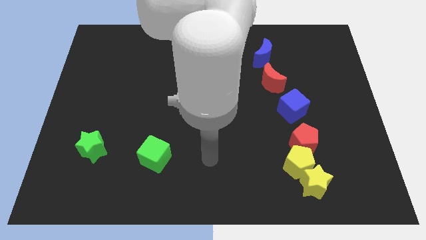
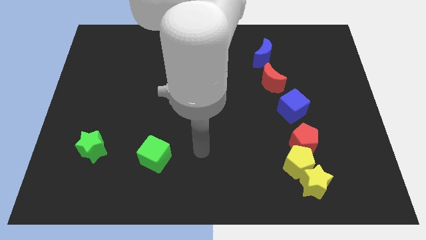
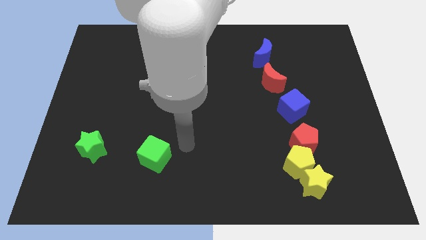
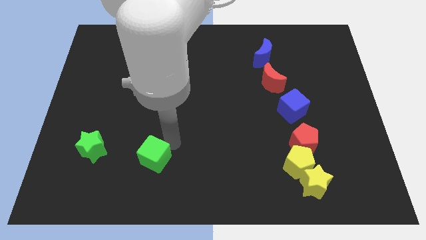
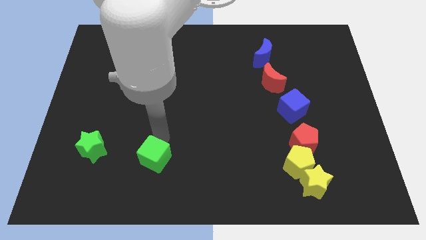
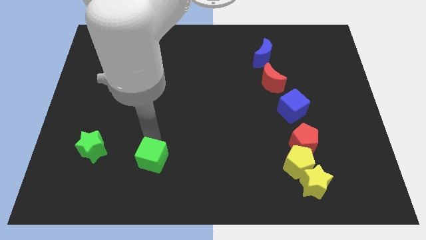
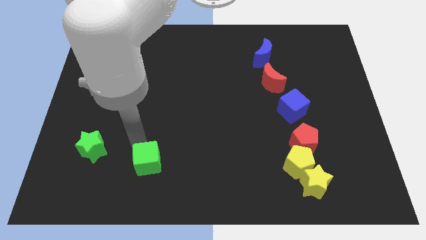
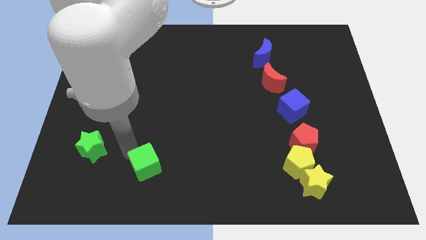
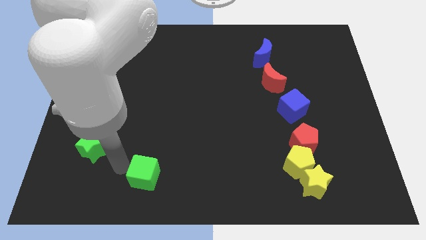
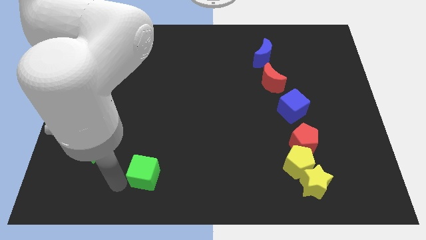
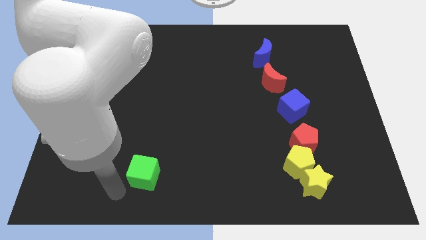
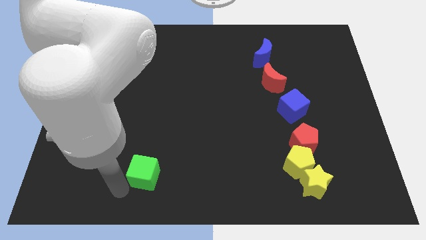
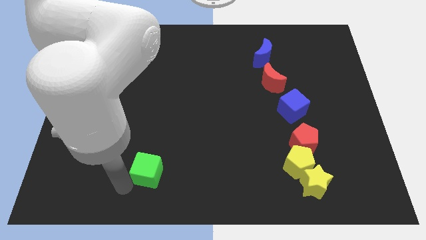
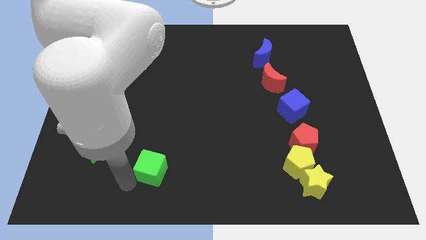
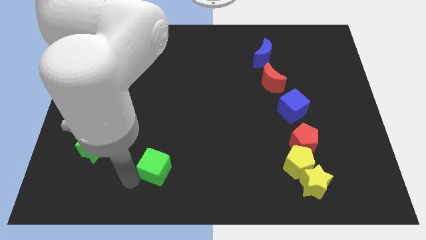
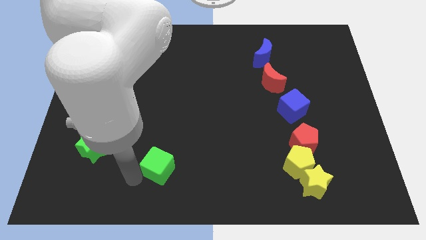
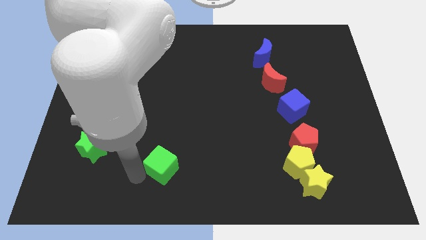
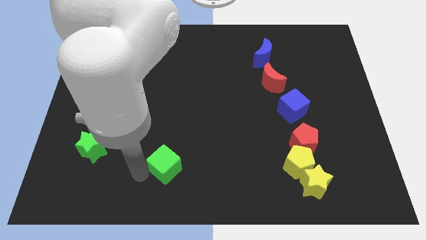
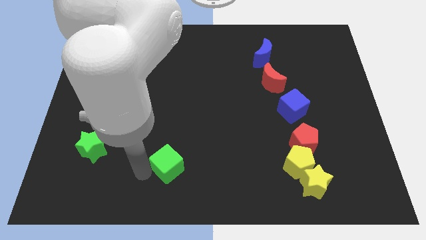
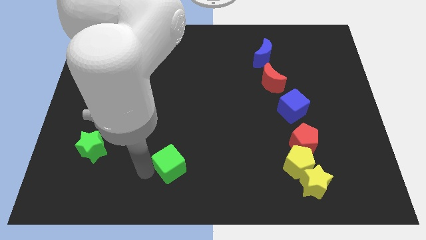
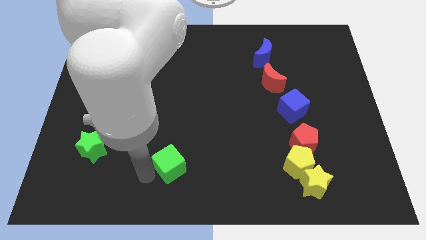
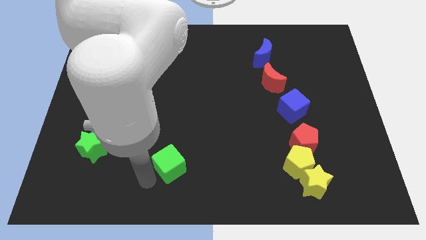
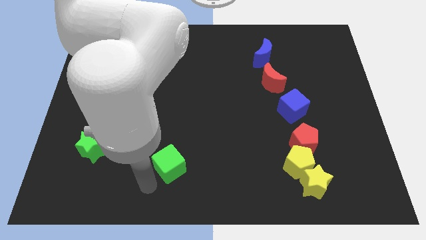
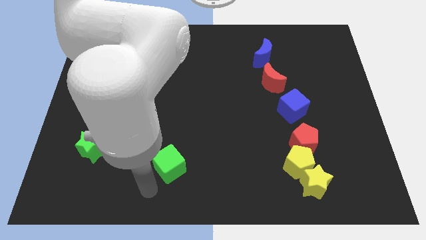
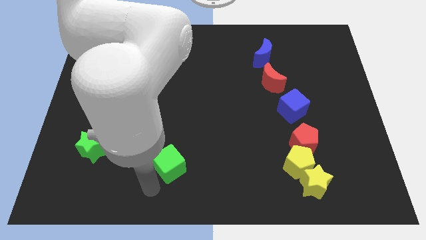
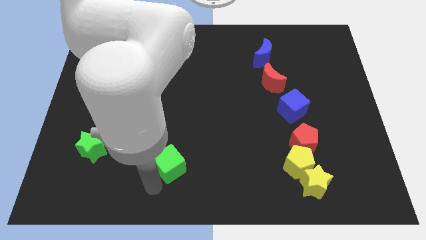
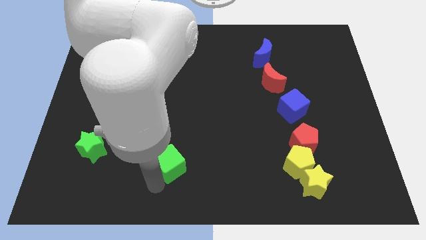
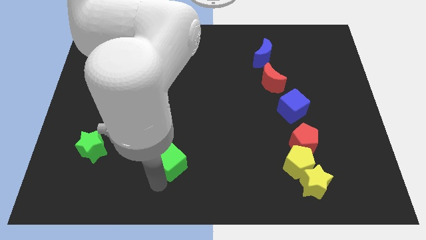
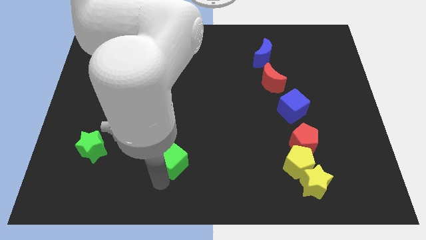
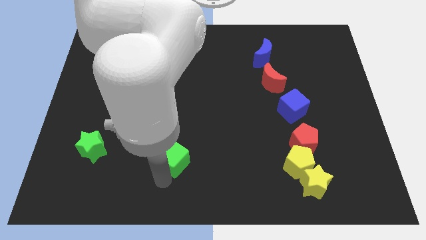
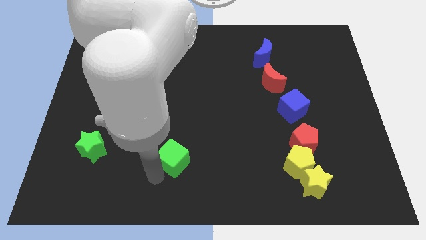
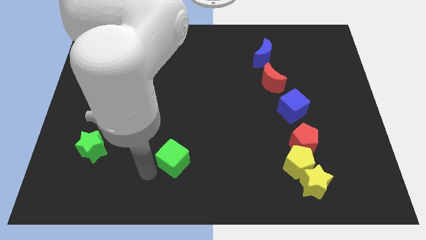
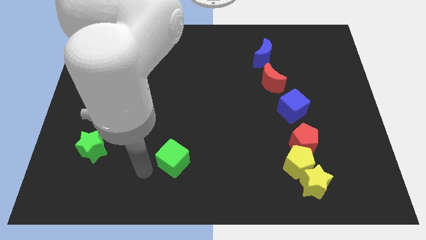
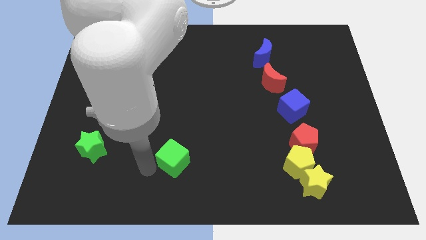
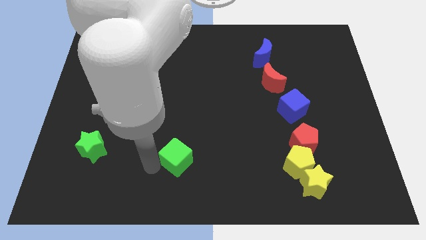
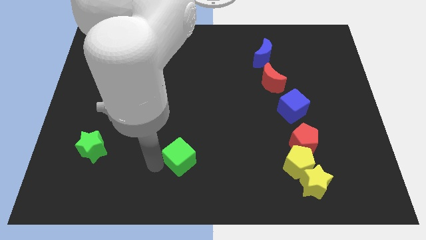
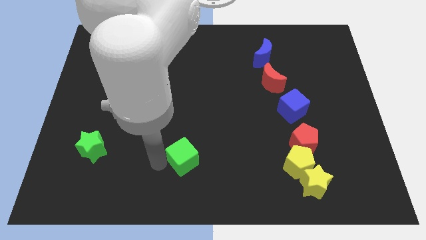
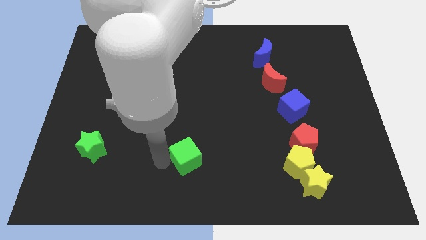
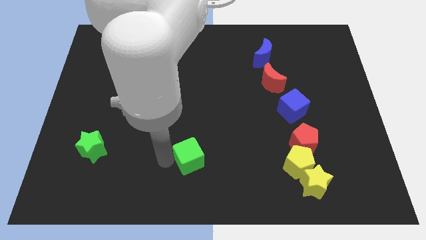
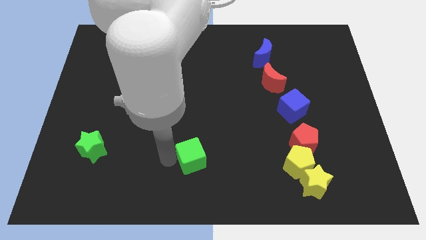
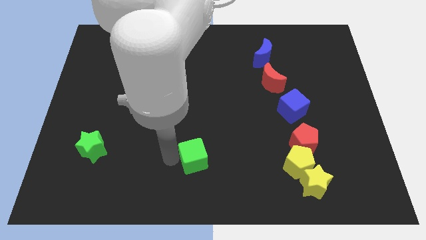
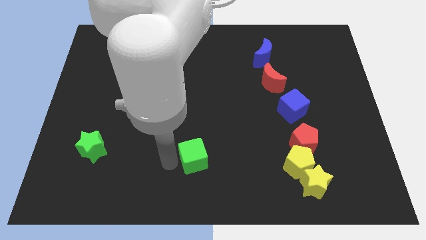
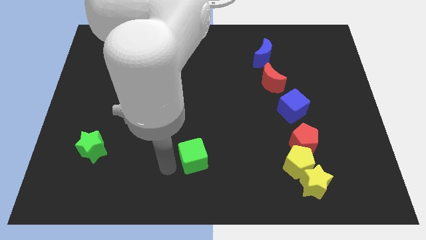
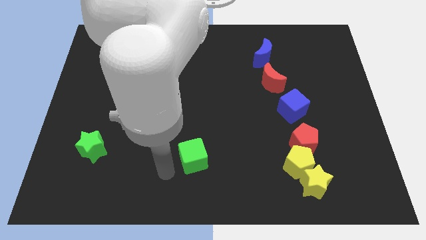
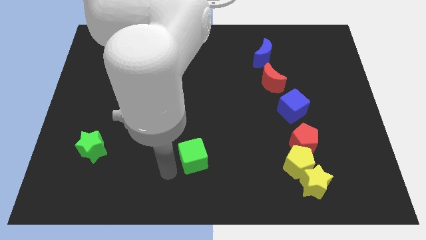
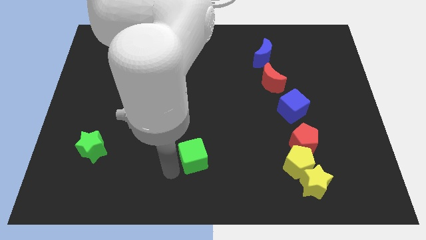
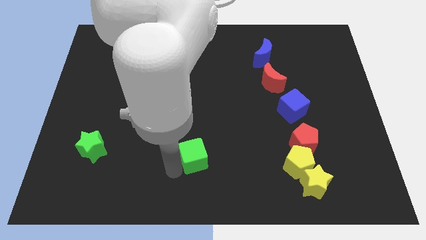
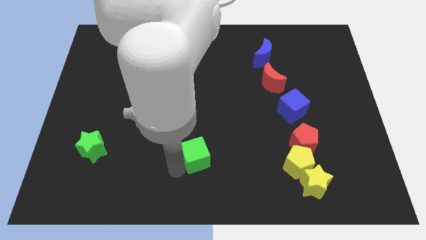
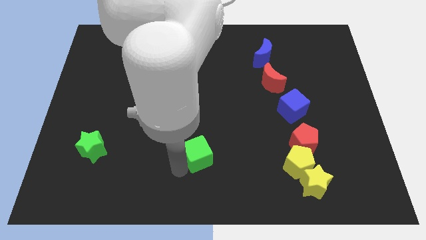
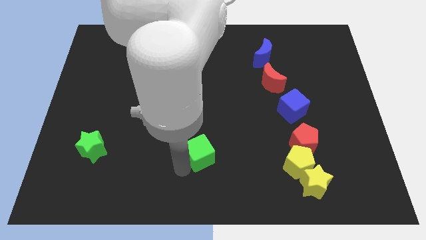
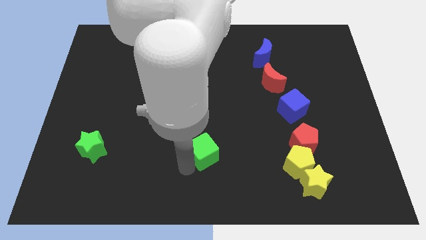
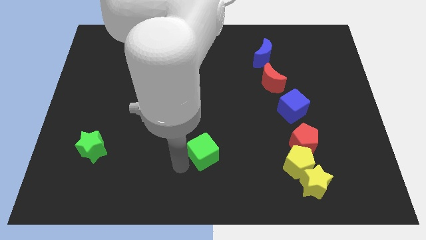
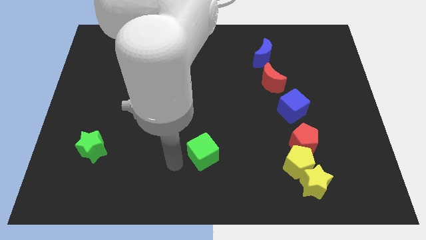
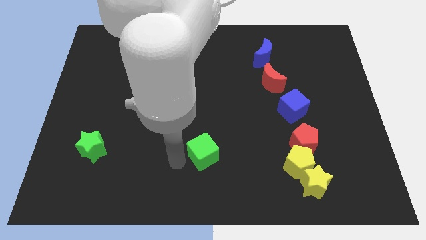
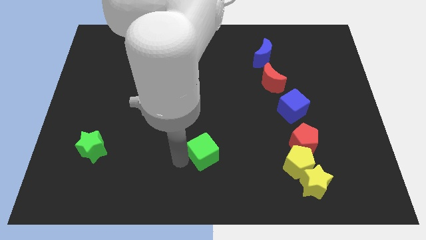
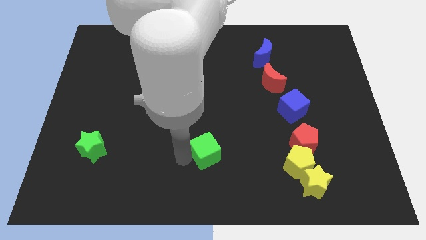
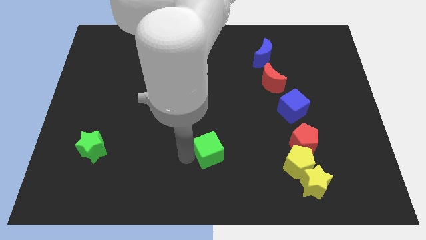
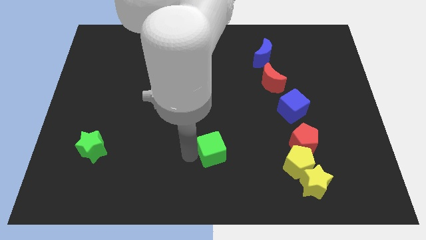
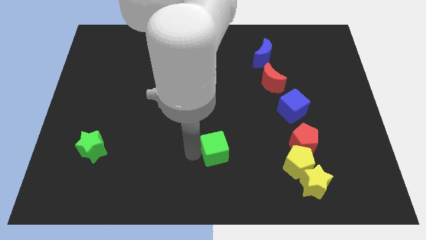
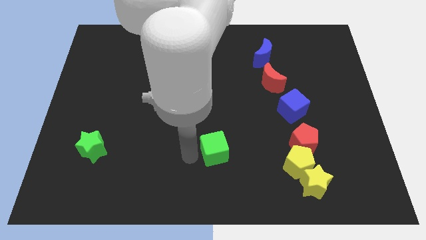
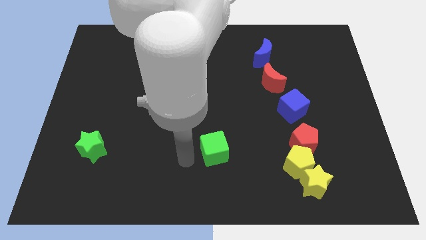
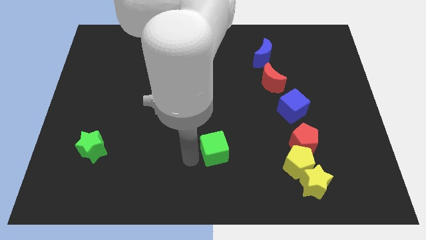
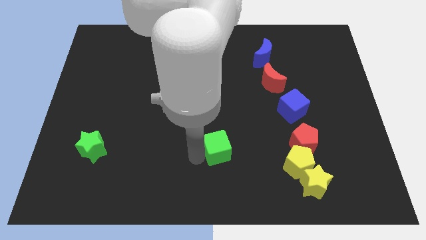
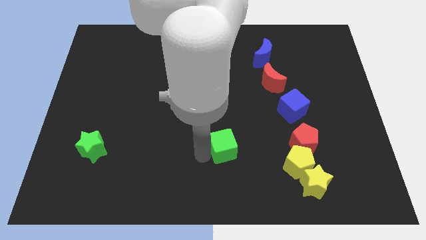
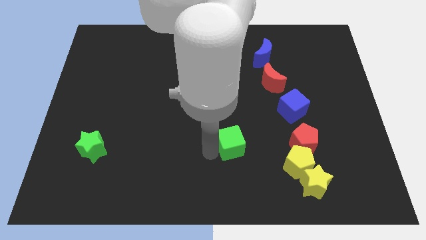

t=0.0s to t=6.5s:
put the green cube to the left of the red pentagon
